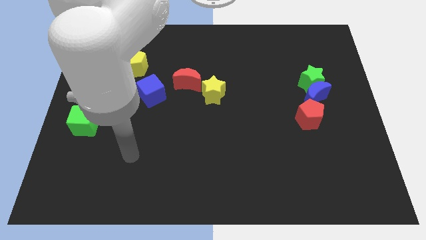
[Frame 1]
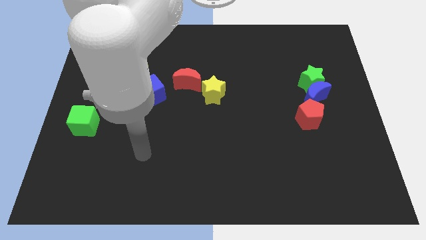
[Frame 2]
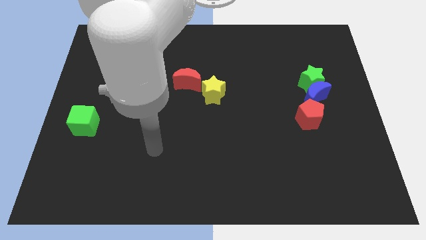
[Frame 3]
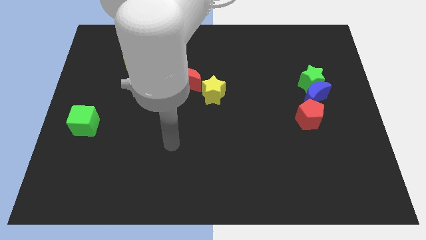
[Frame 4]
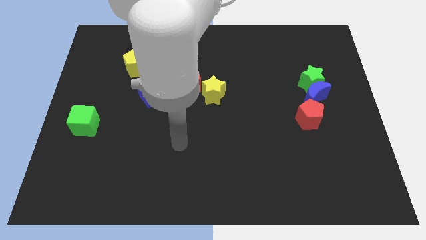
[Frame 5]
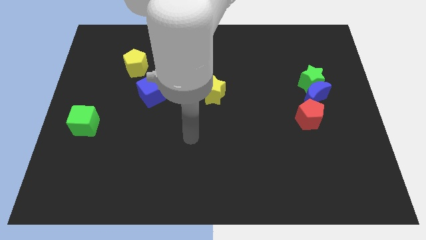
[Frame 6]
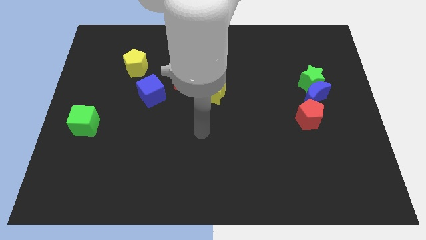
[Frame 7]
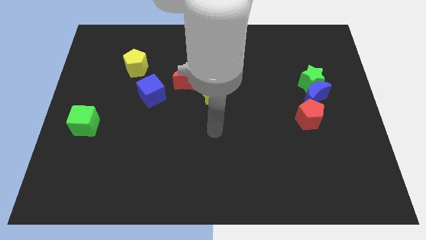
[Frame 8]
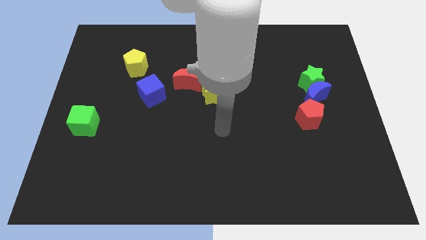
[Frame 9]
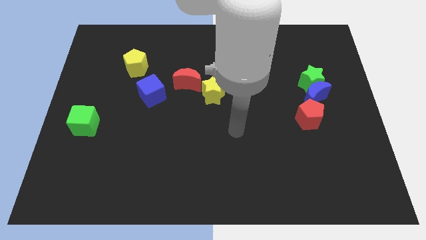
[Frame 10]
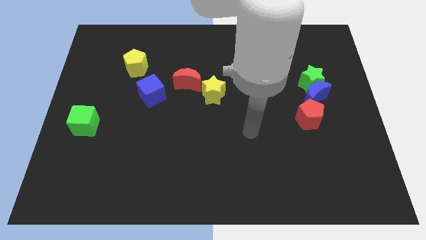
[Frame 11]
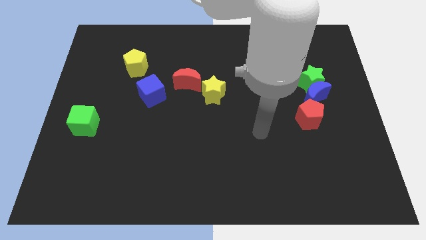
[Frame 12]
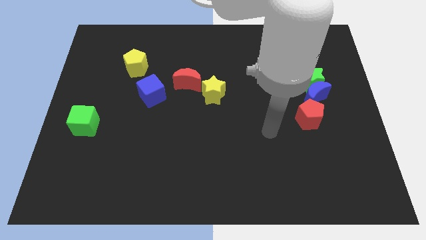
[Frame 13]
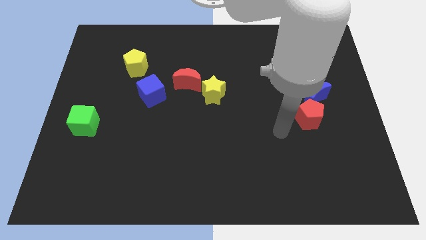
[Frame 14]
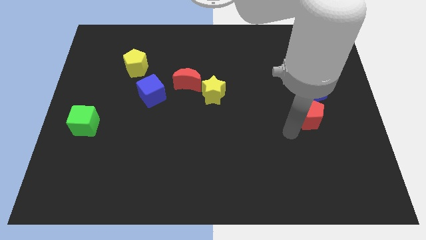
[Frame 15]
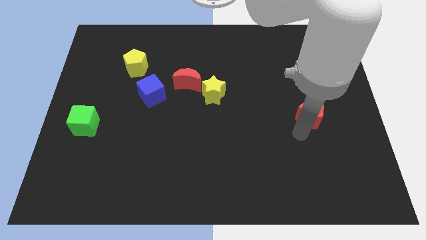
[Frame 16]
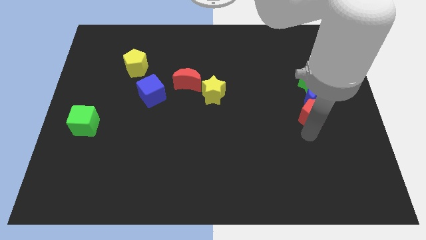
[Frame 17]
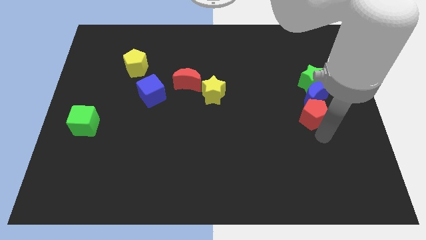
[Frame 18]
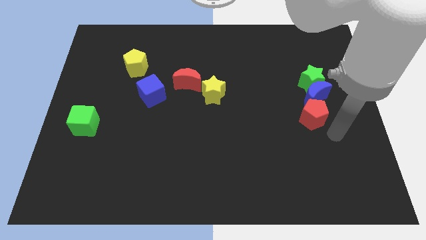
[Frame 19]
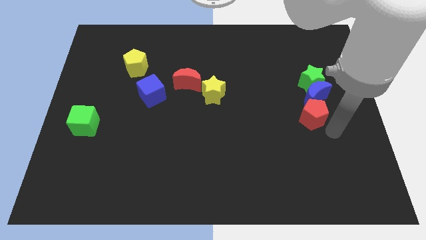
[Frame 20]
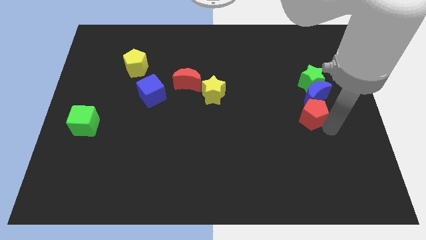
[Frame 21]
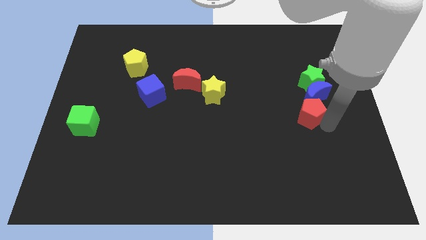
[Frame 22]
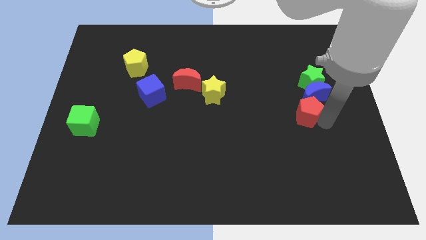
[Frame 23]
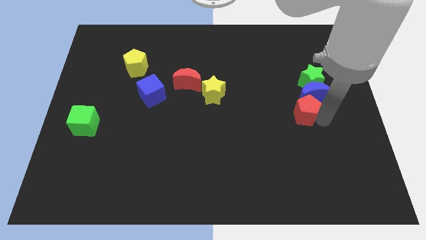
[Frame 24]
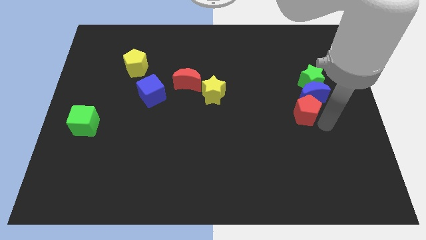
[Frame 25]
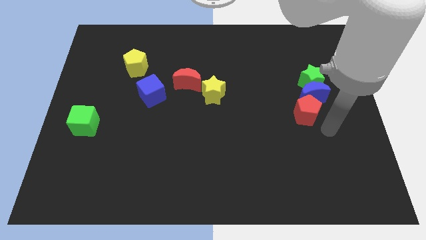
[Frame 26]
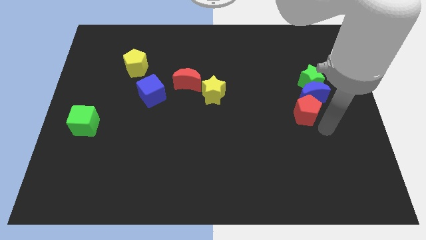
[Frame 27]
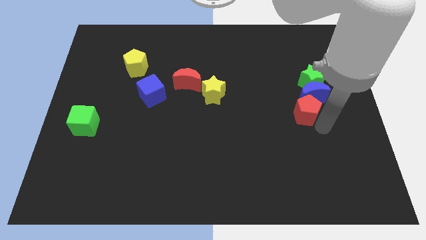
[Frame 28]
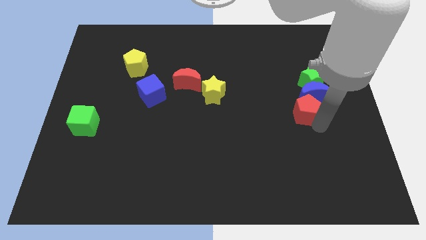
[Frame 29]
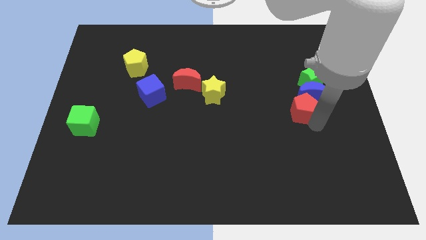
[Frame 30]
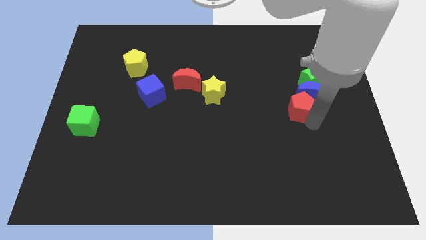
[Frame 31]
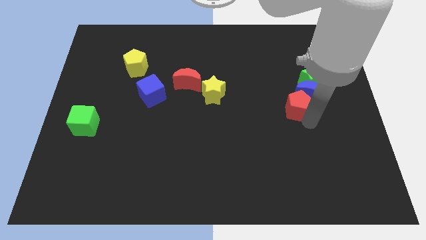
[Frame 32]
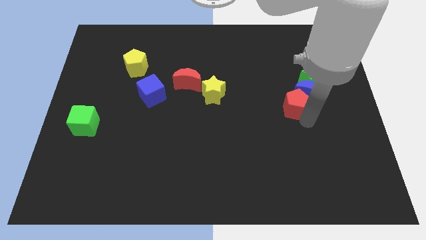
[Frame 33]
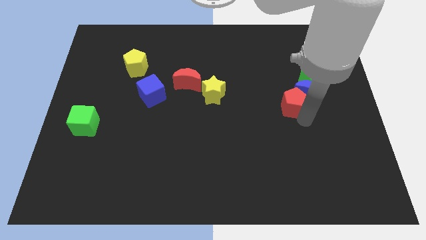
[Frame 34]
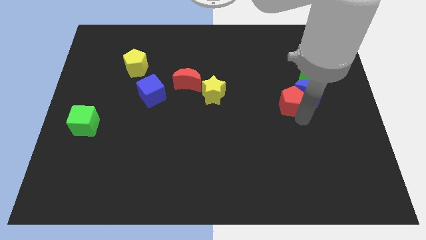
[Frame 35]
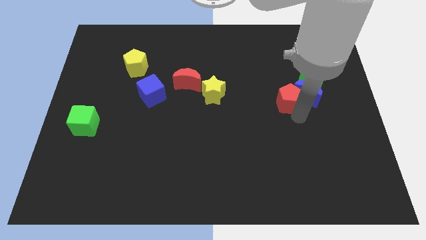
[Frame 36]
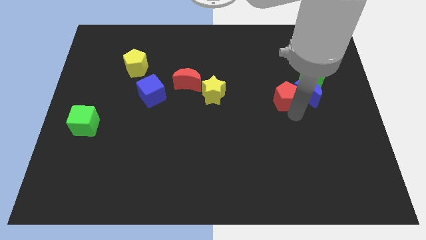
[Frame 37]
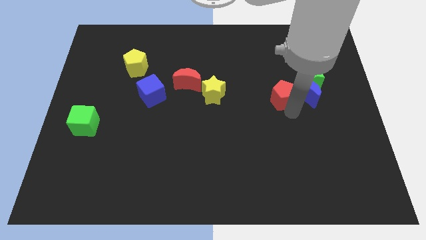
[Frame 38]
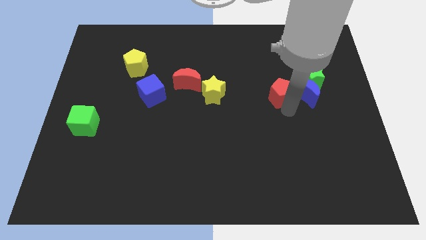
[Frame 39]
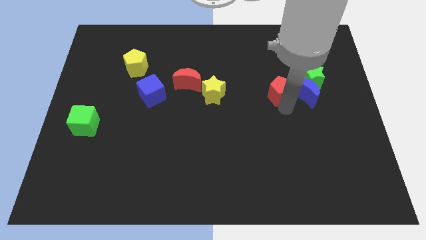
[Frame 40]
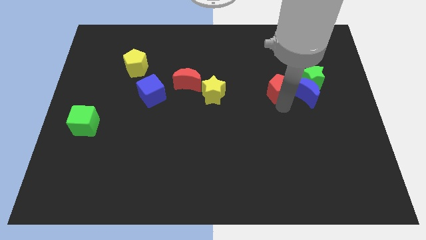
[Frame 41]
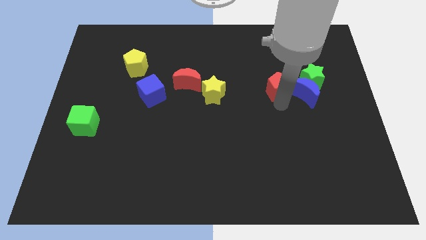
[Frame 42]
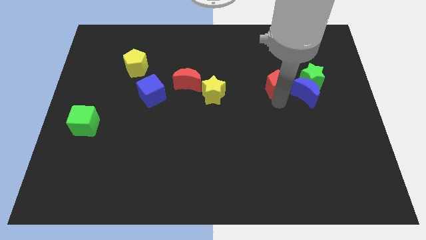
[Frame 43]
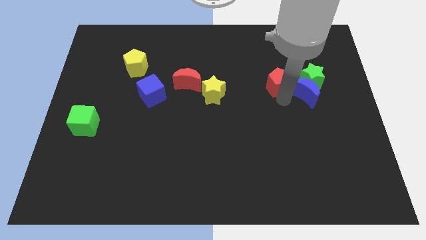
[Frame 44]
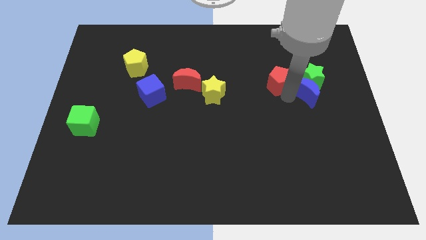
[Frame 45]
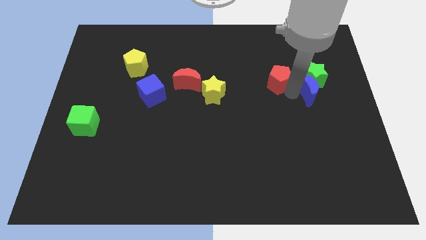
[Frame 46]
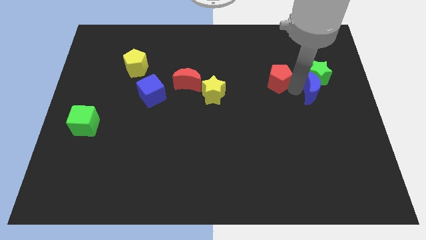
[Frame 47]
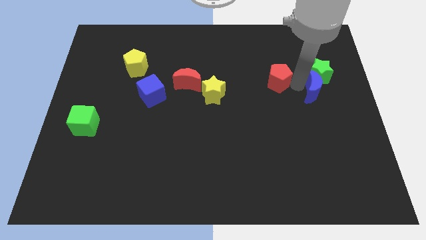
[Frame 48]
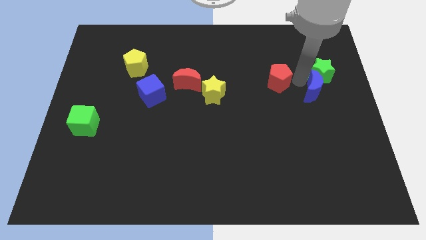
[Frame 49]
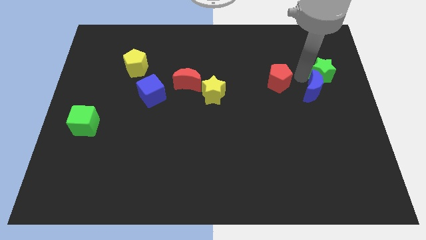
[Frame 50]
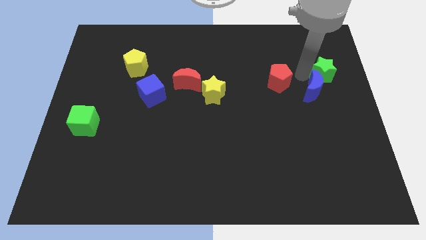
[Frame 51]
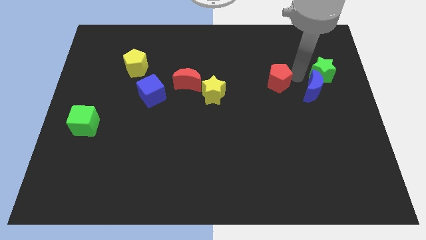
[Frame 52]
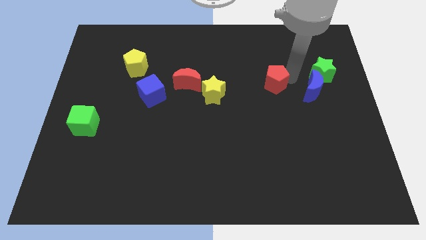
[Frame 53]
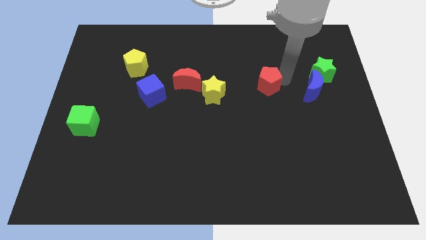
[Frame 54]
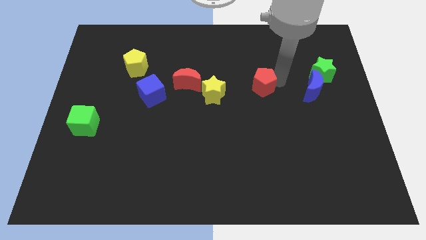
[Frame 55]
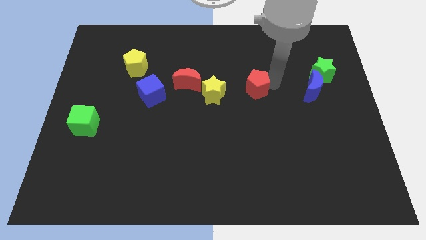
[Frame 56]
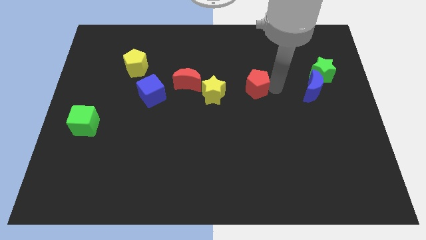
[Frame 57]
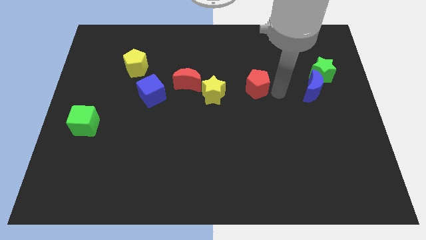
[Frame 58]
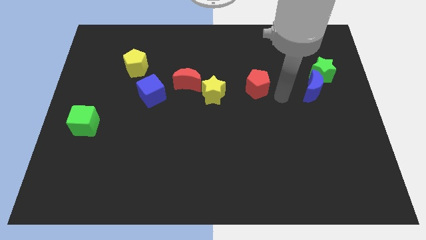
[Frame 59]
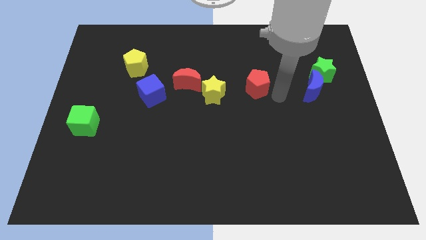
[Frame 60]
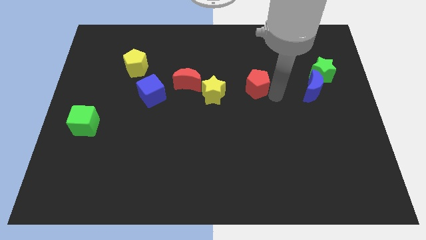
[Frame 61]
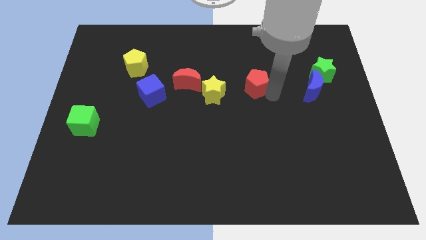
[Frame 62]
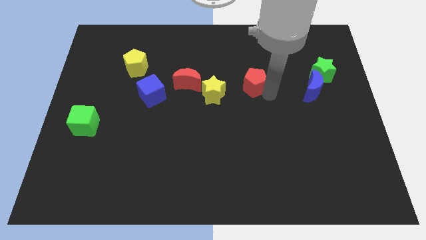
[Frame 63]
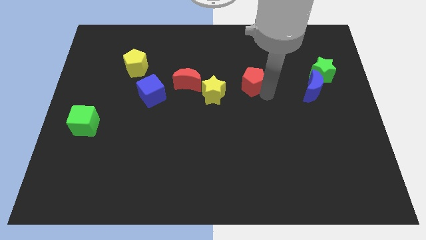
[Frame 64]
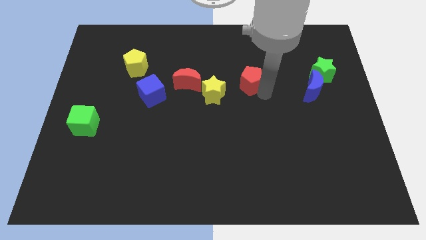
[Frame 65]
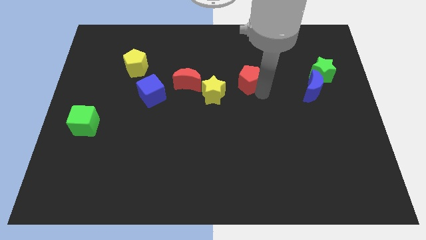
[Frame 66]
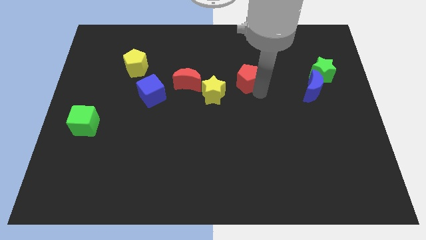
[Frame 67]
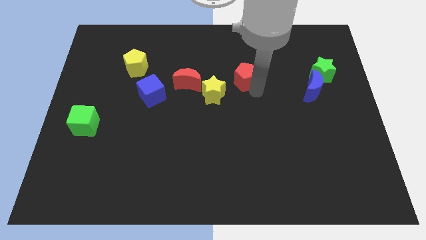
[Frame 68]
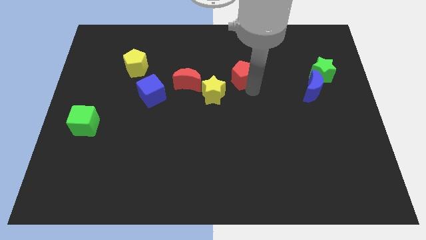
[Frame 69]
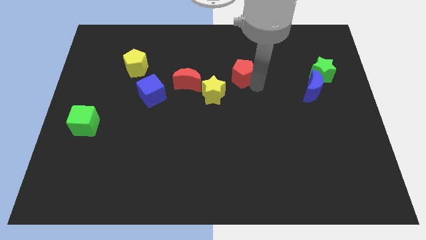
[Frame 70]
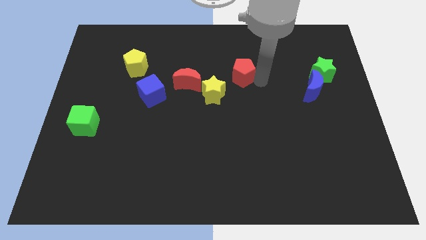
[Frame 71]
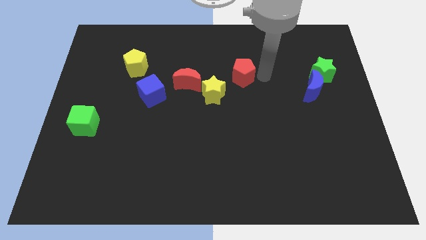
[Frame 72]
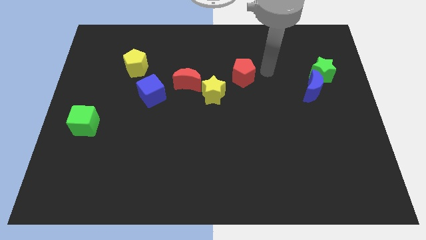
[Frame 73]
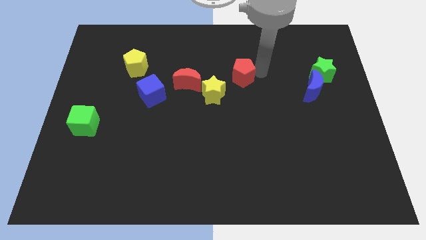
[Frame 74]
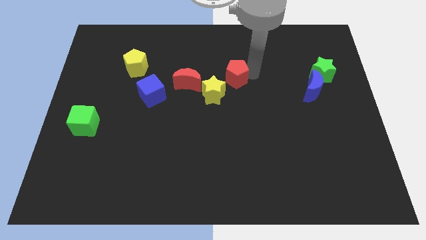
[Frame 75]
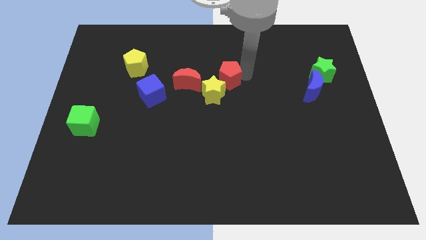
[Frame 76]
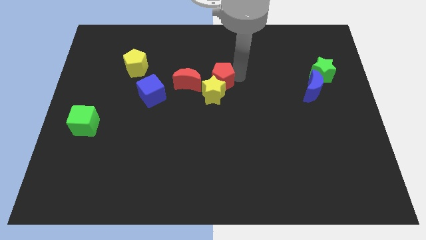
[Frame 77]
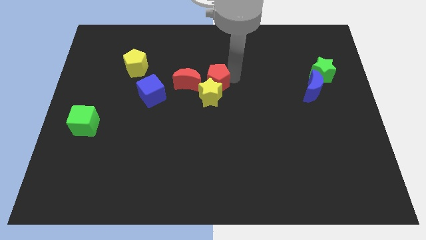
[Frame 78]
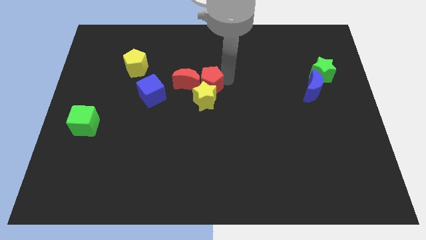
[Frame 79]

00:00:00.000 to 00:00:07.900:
put the red pentagon next to the red moon
